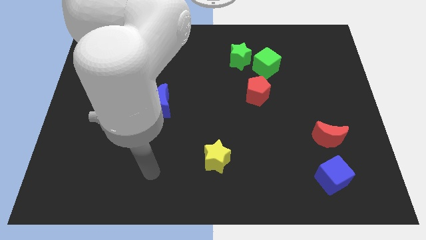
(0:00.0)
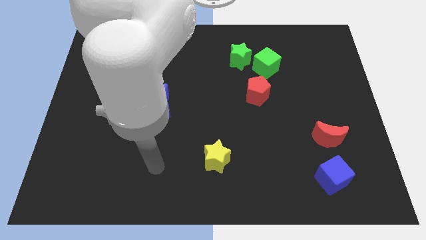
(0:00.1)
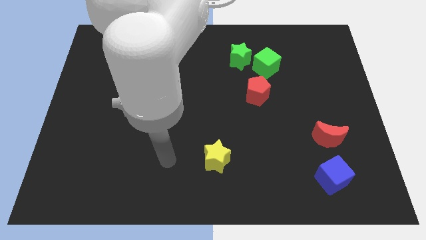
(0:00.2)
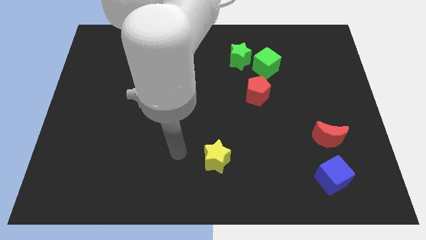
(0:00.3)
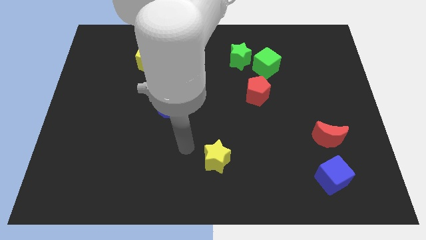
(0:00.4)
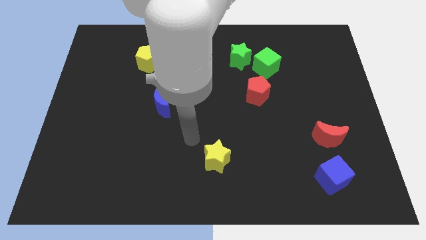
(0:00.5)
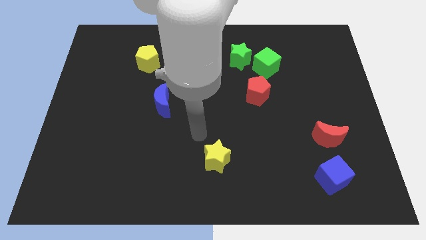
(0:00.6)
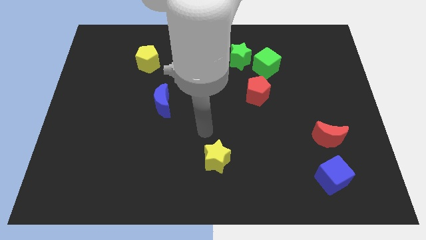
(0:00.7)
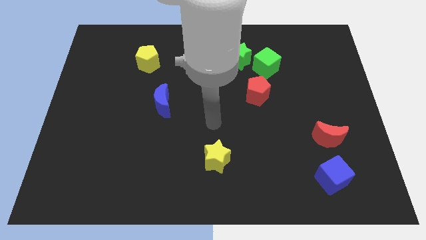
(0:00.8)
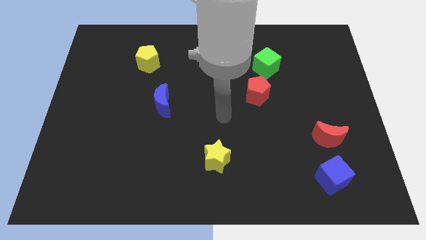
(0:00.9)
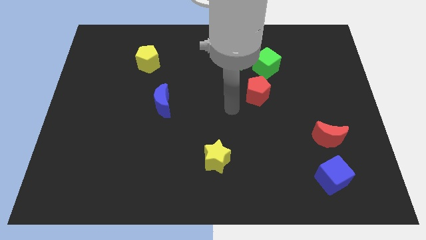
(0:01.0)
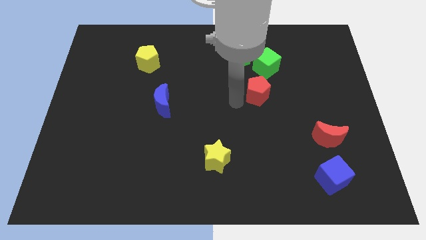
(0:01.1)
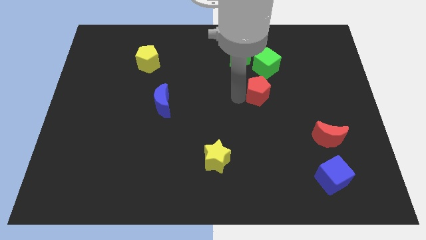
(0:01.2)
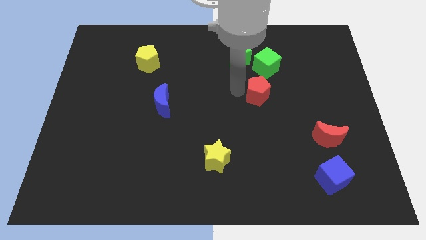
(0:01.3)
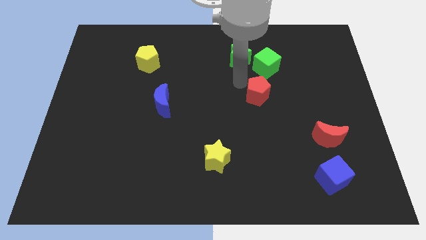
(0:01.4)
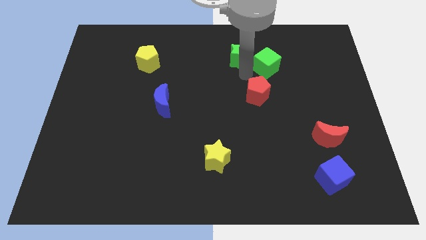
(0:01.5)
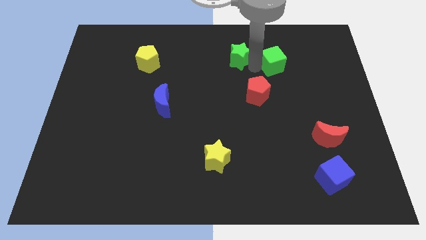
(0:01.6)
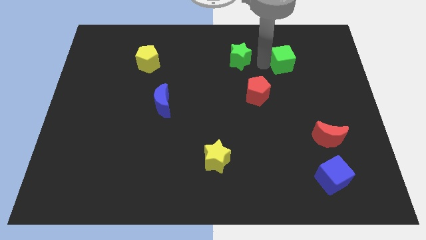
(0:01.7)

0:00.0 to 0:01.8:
move the green star away from the green cube

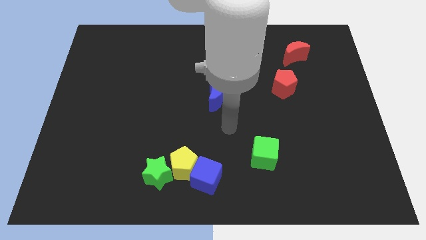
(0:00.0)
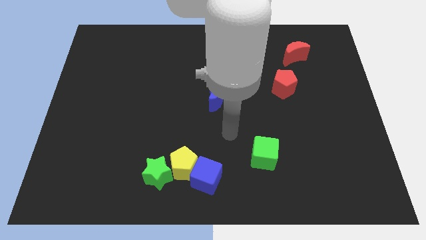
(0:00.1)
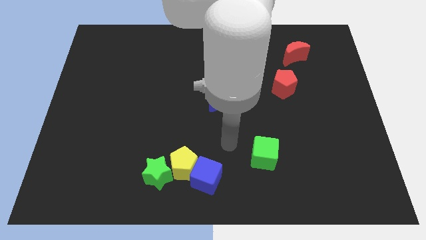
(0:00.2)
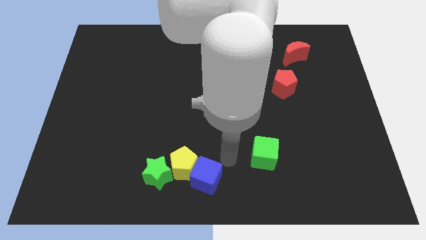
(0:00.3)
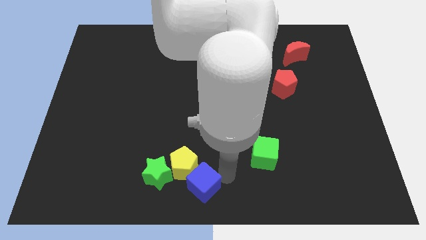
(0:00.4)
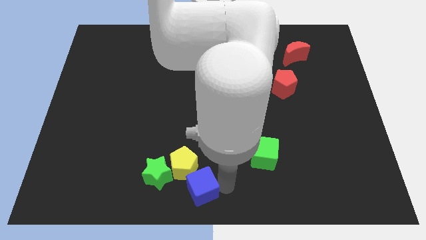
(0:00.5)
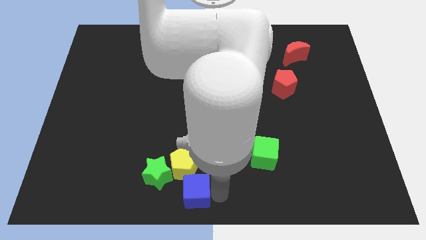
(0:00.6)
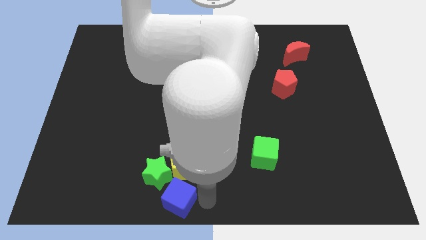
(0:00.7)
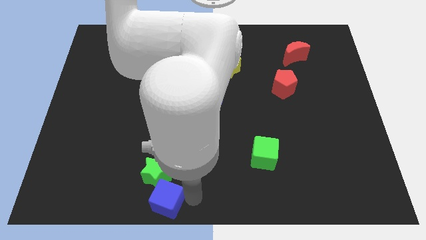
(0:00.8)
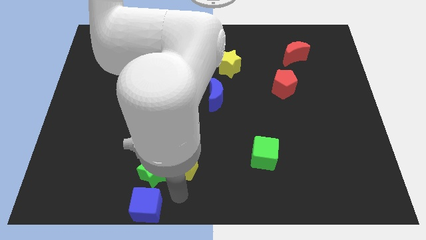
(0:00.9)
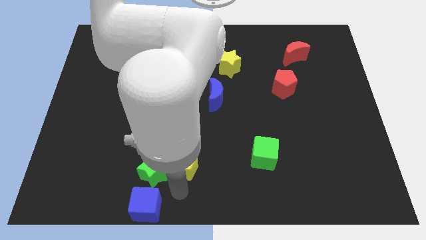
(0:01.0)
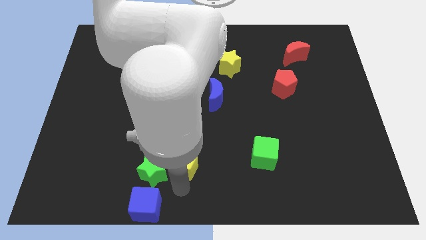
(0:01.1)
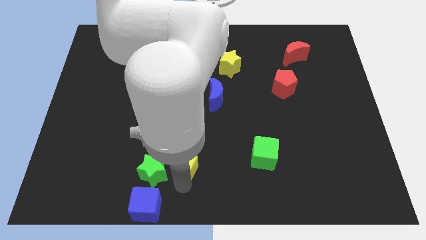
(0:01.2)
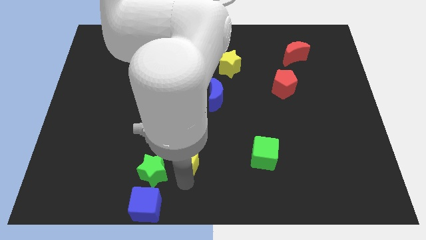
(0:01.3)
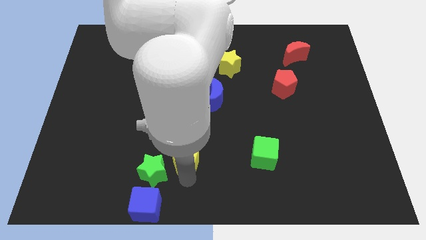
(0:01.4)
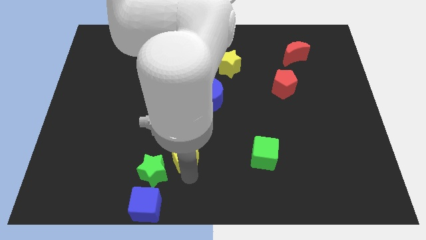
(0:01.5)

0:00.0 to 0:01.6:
separate the yellow pentagon from the blue cube and green star

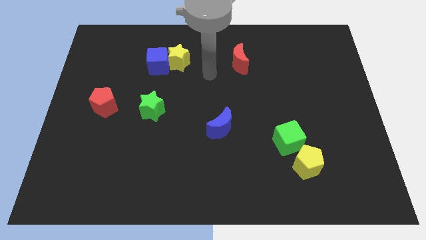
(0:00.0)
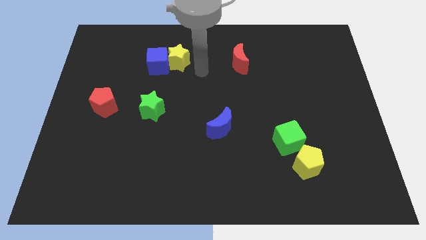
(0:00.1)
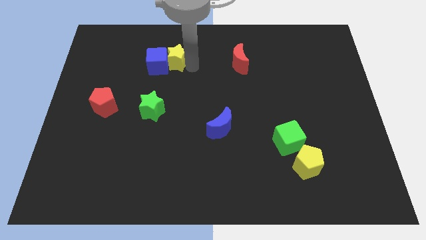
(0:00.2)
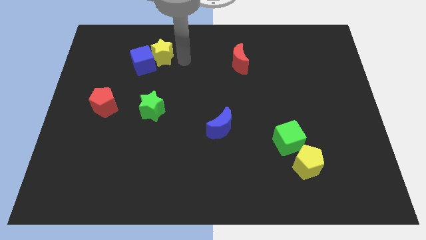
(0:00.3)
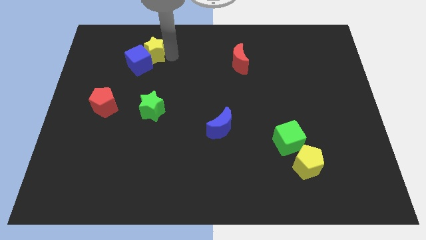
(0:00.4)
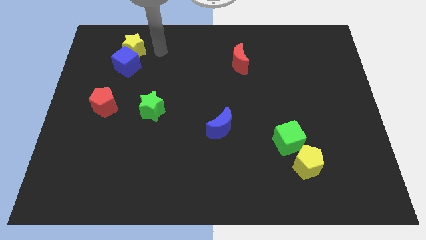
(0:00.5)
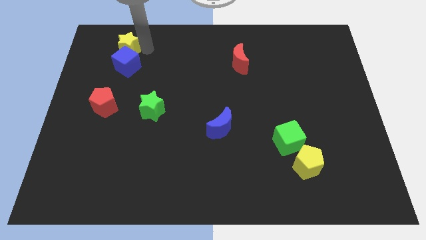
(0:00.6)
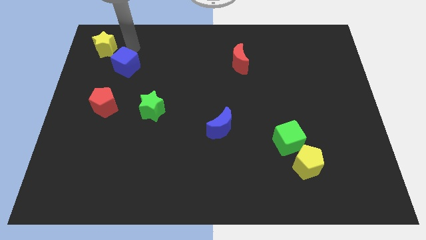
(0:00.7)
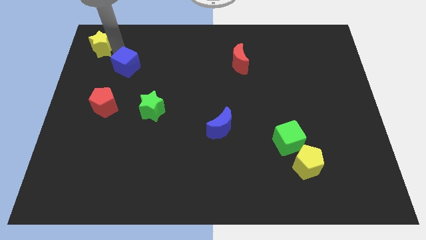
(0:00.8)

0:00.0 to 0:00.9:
pull the blue cube apart from the yellow star

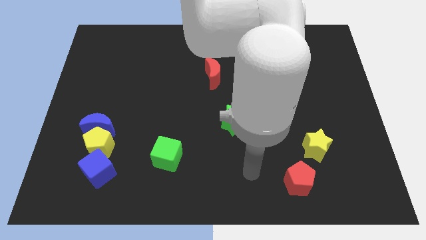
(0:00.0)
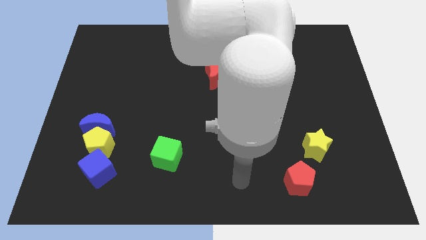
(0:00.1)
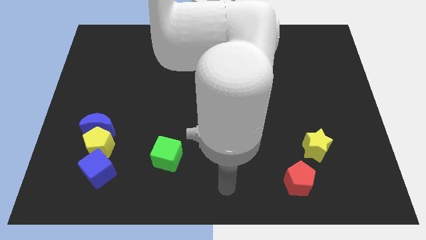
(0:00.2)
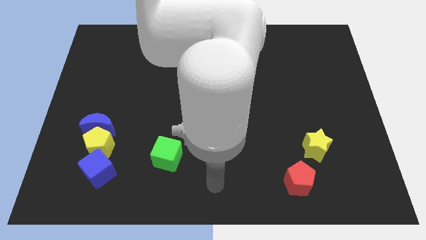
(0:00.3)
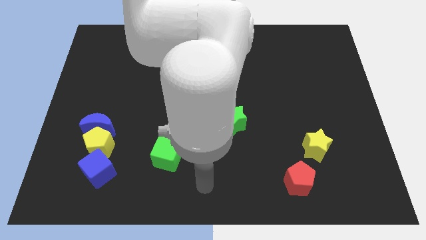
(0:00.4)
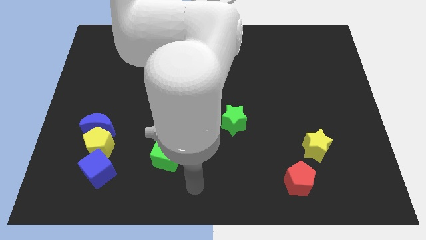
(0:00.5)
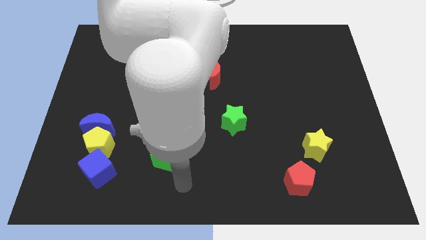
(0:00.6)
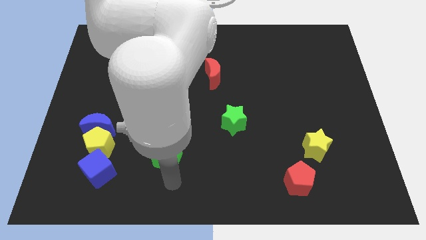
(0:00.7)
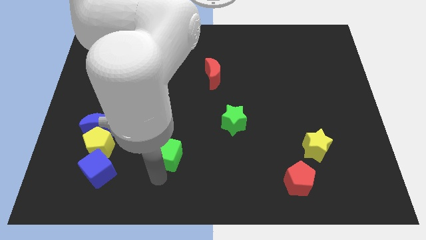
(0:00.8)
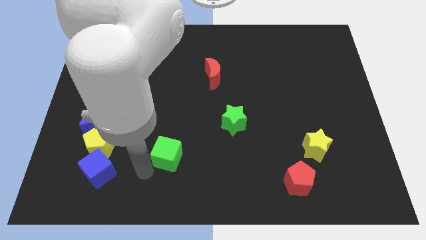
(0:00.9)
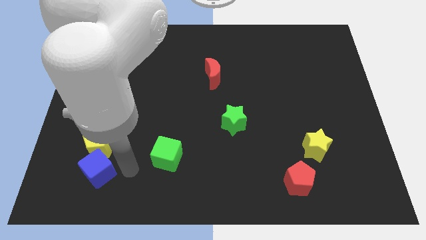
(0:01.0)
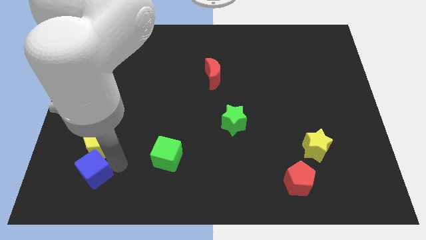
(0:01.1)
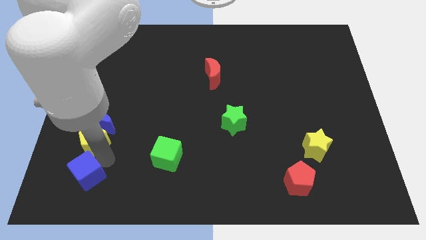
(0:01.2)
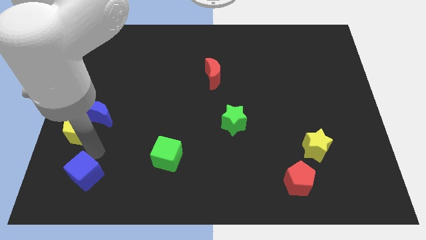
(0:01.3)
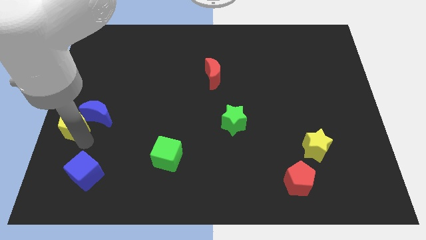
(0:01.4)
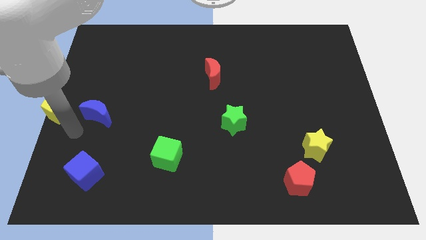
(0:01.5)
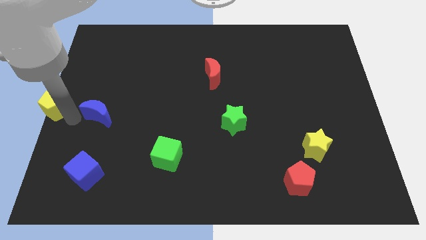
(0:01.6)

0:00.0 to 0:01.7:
move the blue moon away from the yellow pentagon

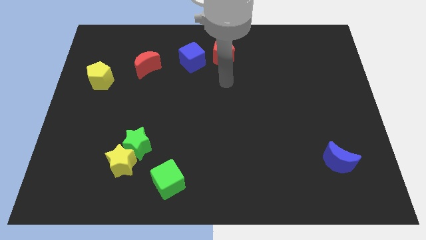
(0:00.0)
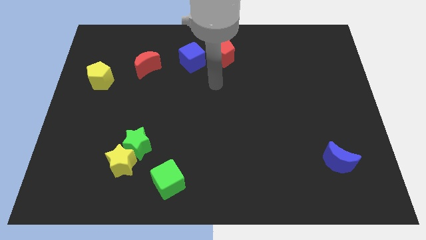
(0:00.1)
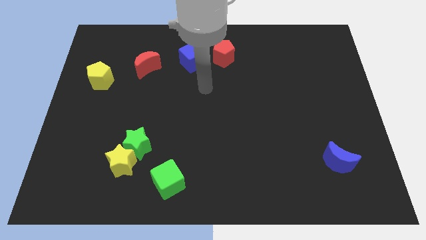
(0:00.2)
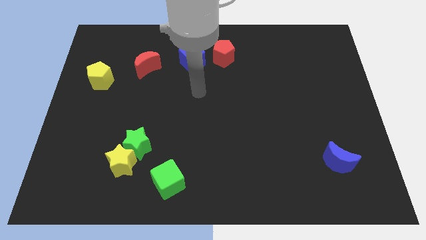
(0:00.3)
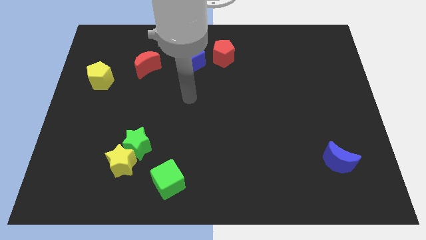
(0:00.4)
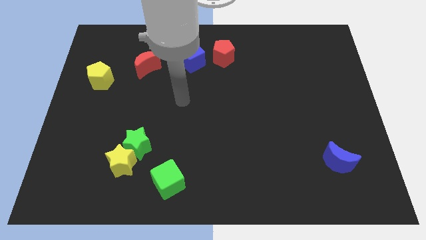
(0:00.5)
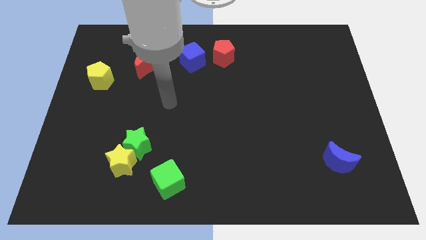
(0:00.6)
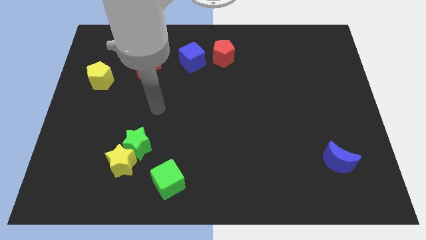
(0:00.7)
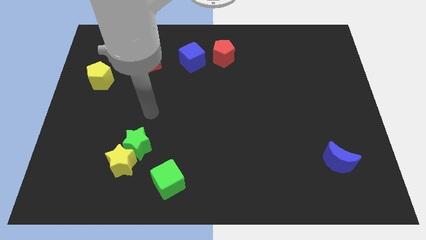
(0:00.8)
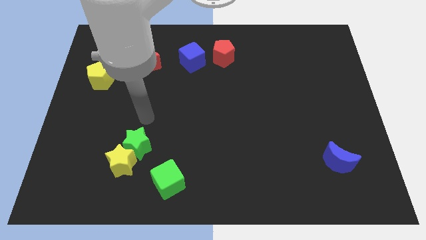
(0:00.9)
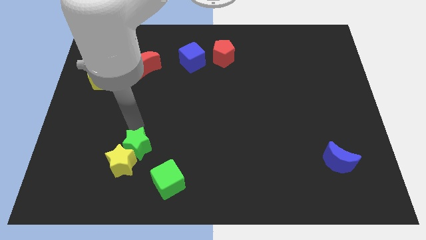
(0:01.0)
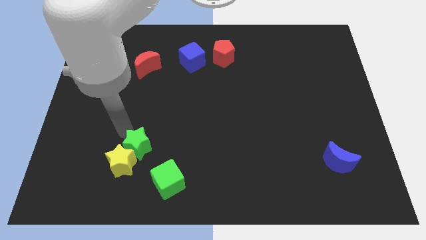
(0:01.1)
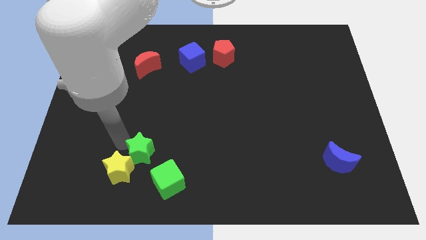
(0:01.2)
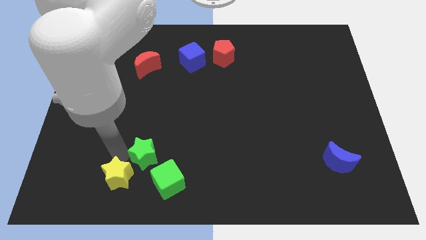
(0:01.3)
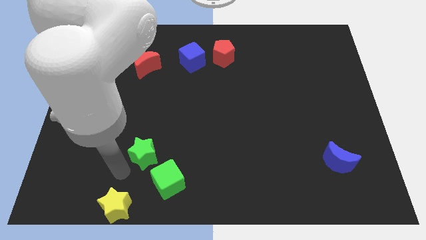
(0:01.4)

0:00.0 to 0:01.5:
separate the green star from the yellow star

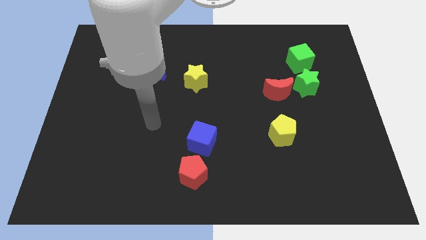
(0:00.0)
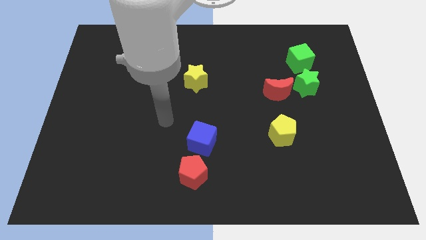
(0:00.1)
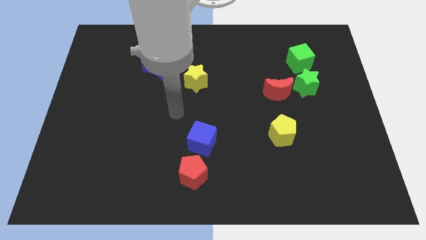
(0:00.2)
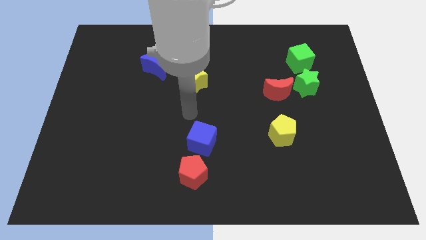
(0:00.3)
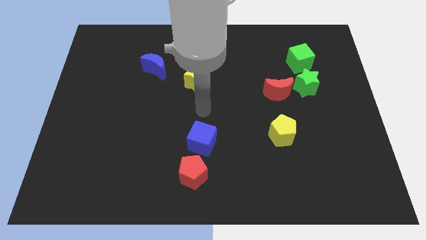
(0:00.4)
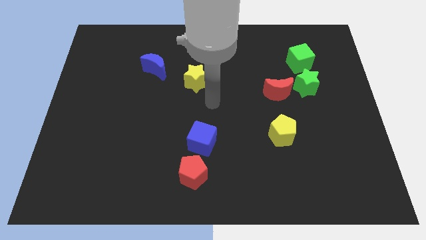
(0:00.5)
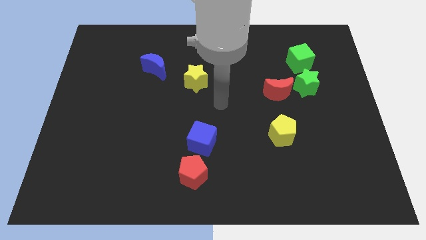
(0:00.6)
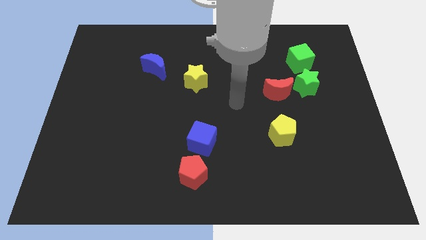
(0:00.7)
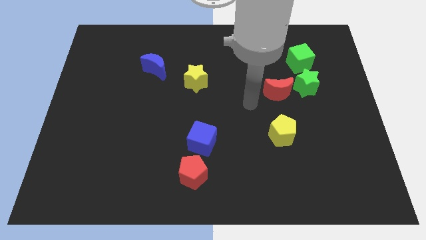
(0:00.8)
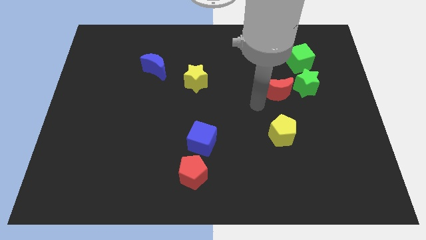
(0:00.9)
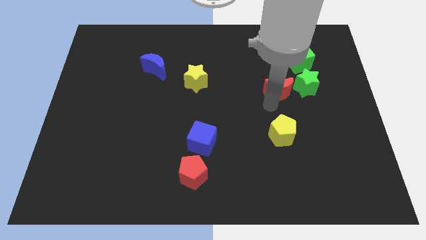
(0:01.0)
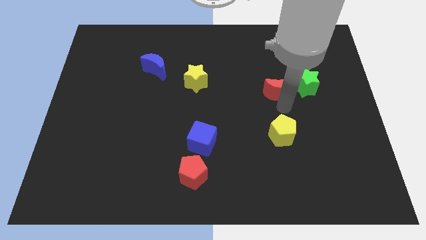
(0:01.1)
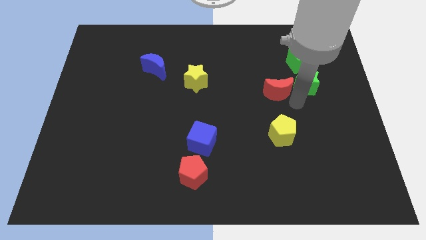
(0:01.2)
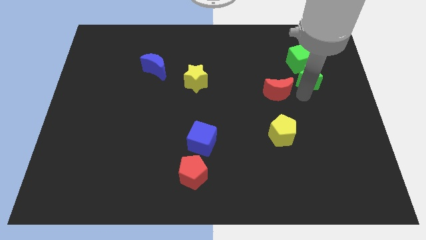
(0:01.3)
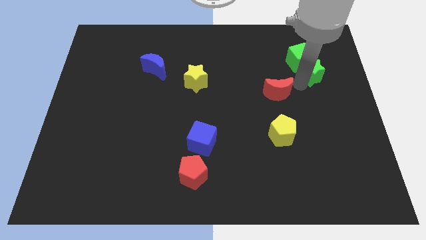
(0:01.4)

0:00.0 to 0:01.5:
separate the red moon from the green star

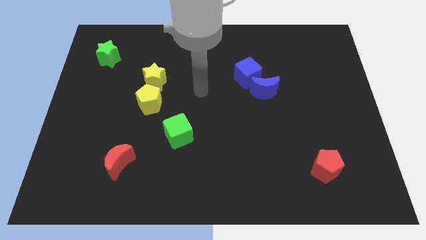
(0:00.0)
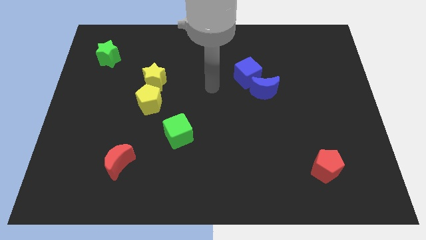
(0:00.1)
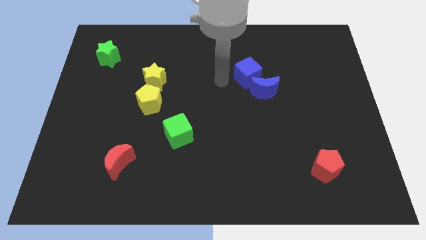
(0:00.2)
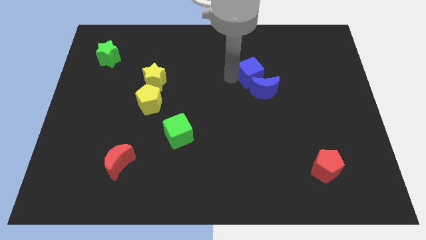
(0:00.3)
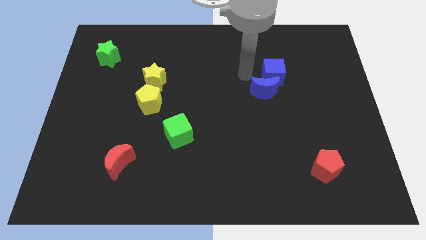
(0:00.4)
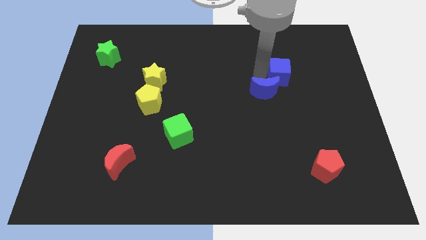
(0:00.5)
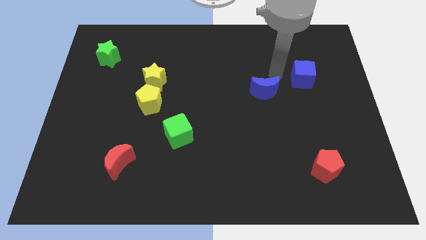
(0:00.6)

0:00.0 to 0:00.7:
move the blue moon away from the blue cube
